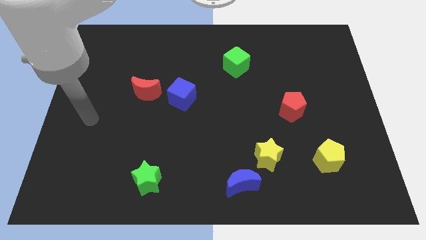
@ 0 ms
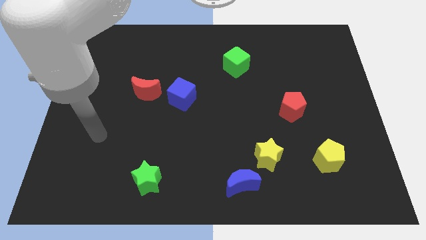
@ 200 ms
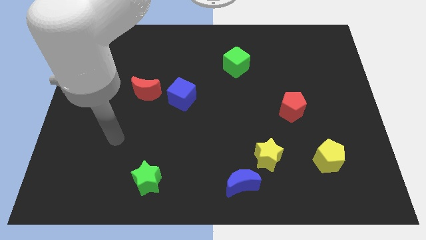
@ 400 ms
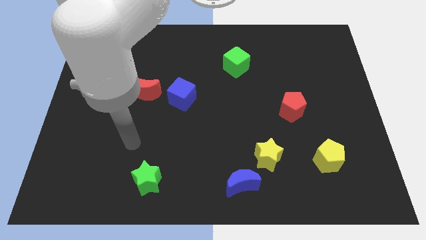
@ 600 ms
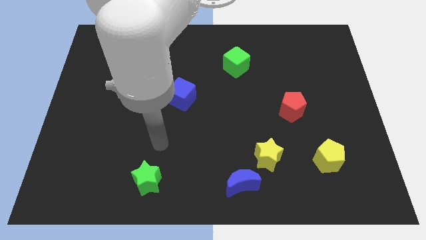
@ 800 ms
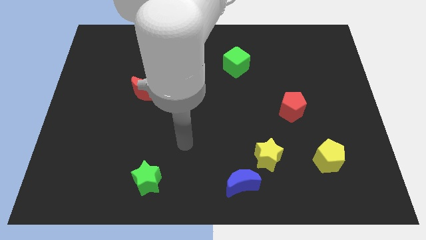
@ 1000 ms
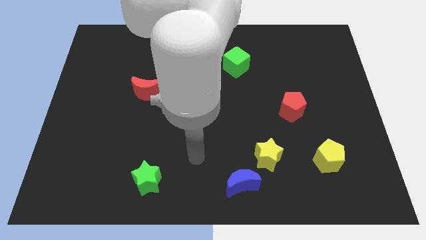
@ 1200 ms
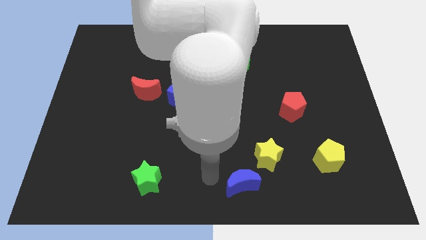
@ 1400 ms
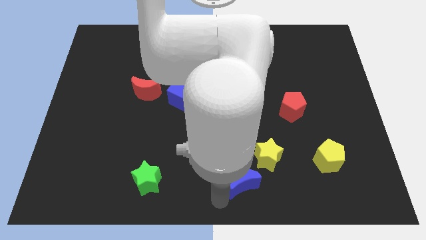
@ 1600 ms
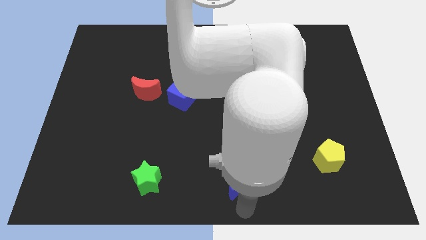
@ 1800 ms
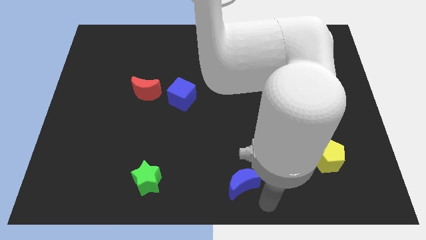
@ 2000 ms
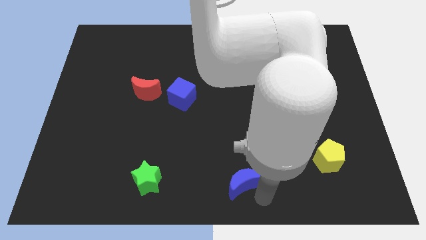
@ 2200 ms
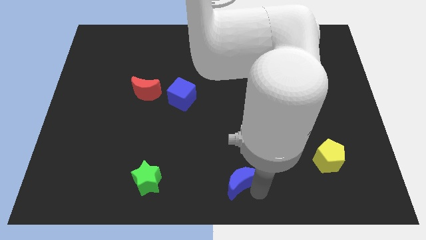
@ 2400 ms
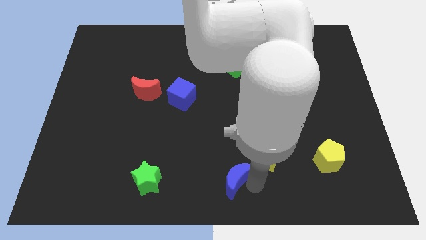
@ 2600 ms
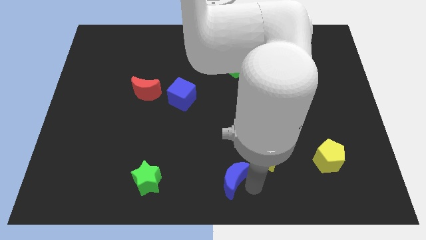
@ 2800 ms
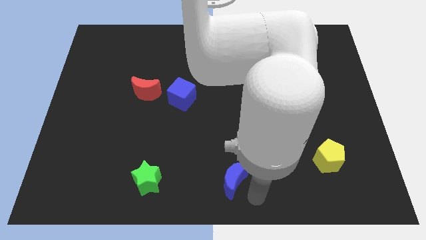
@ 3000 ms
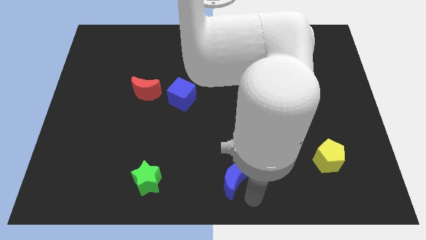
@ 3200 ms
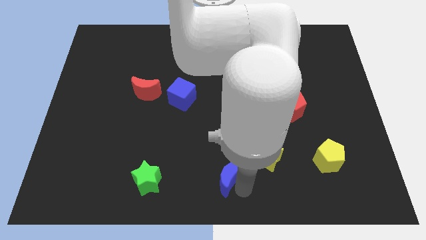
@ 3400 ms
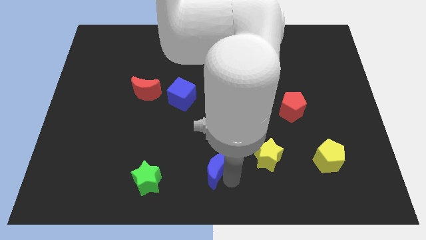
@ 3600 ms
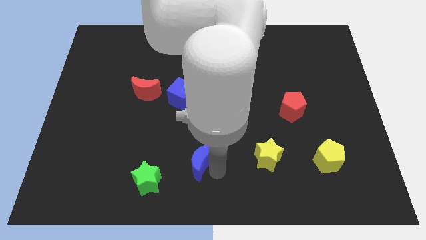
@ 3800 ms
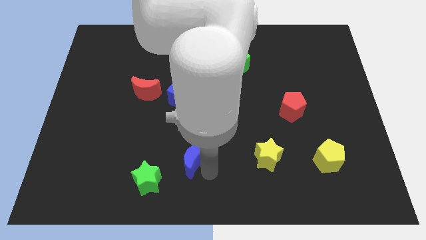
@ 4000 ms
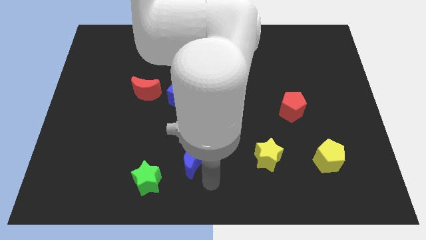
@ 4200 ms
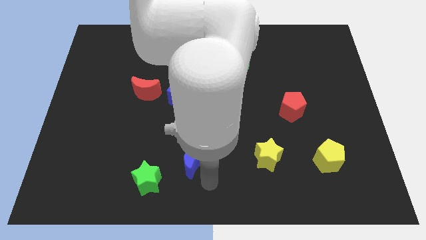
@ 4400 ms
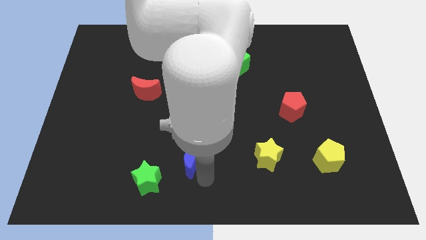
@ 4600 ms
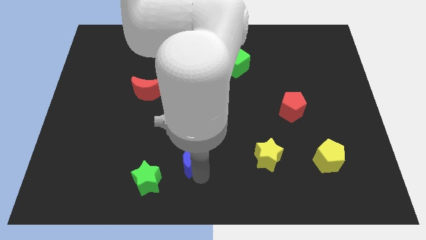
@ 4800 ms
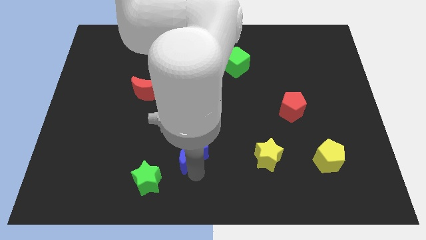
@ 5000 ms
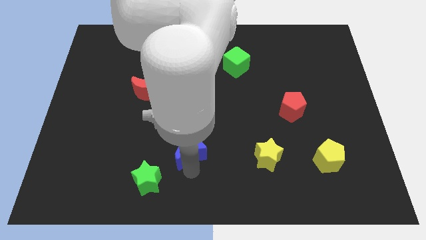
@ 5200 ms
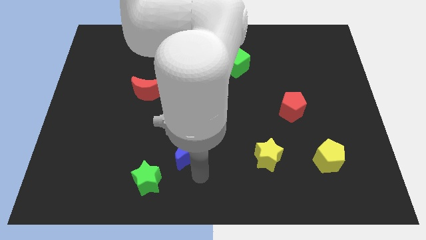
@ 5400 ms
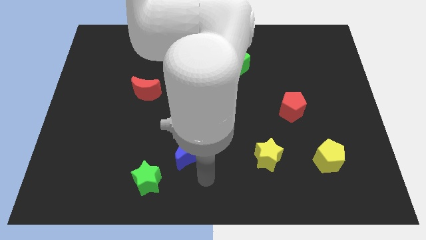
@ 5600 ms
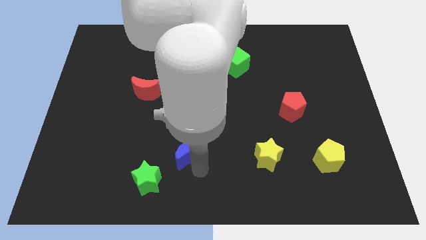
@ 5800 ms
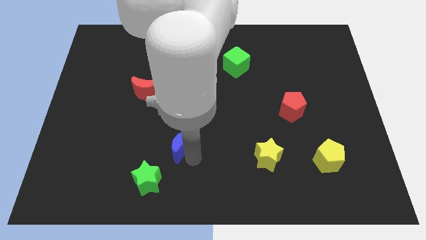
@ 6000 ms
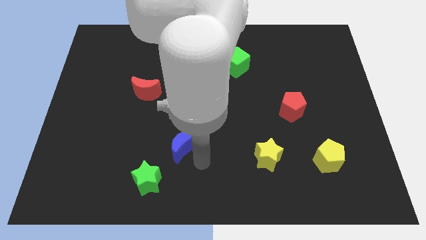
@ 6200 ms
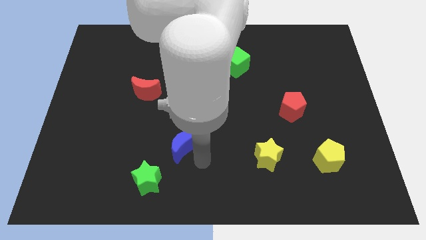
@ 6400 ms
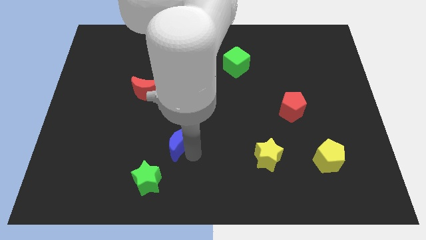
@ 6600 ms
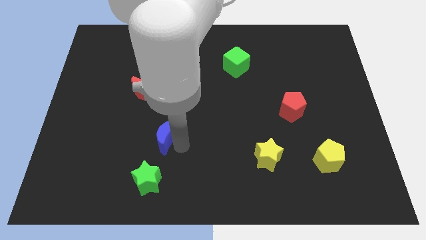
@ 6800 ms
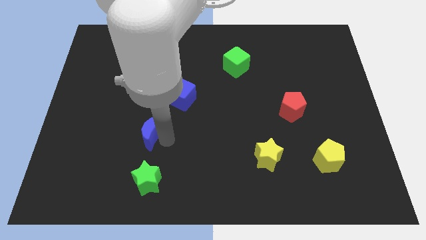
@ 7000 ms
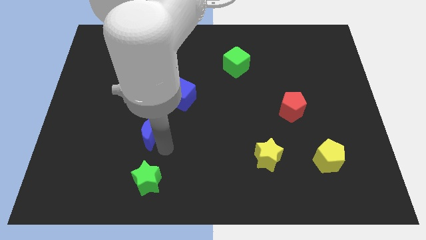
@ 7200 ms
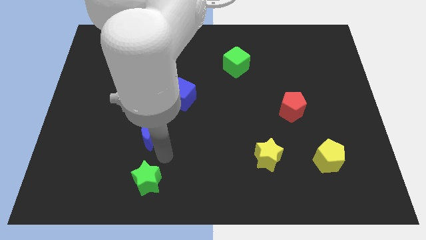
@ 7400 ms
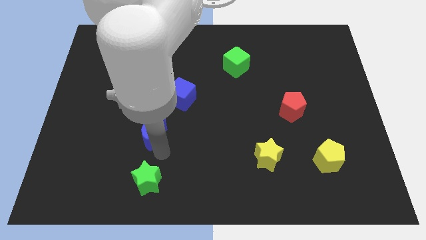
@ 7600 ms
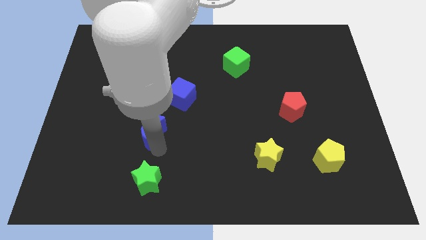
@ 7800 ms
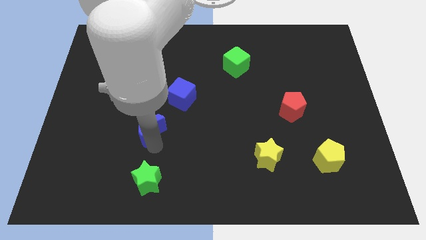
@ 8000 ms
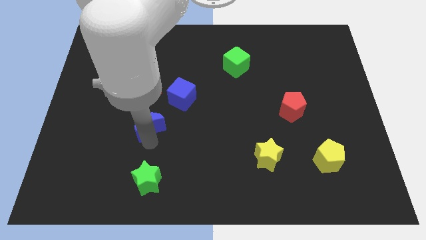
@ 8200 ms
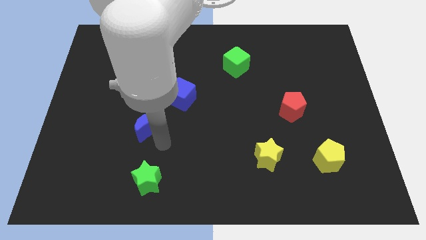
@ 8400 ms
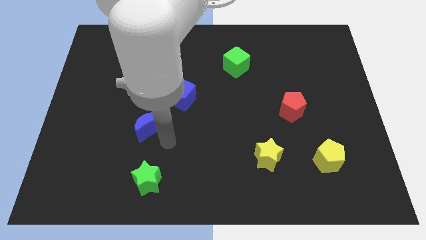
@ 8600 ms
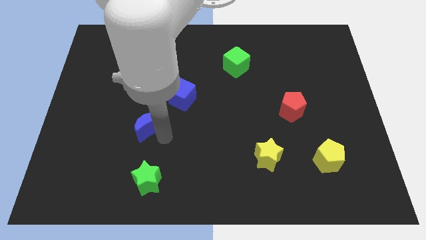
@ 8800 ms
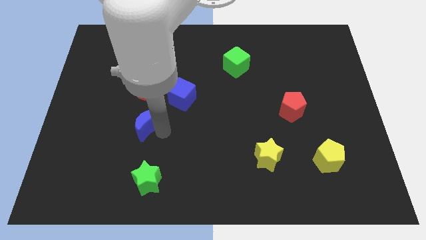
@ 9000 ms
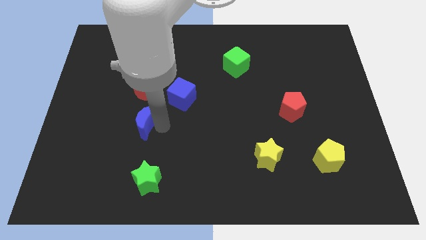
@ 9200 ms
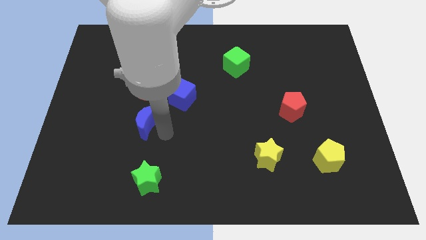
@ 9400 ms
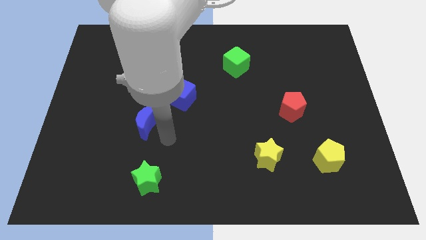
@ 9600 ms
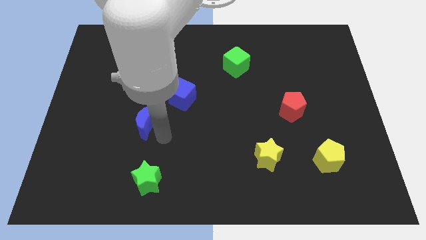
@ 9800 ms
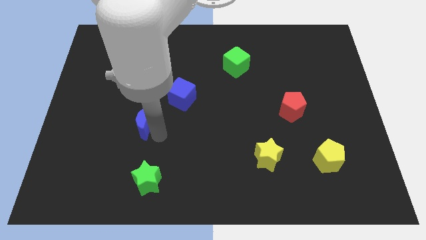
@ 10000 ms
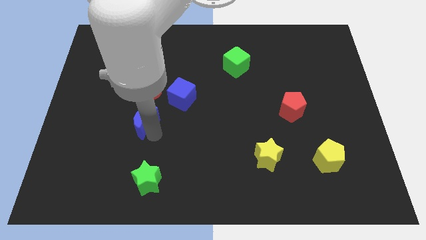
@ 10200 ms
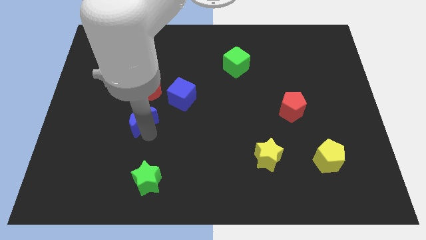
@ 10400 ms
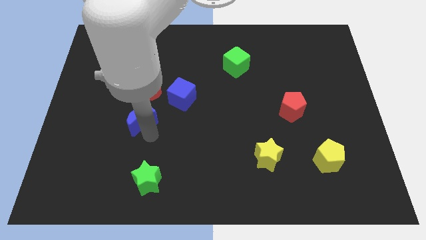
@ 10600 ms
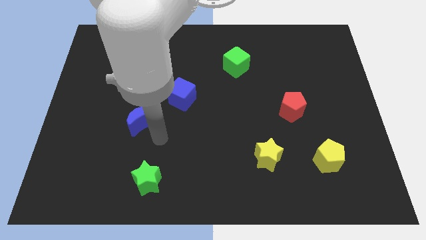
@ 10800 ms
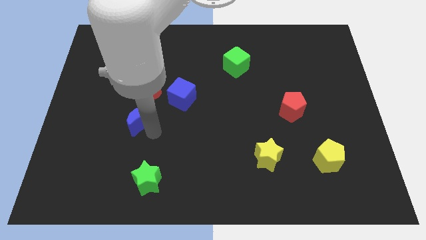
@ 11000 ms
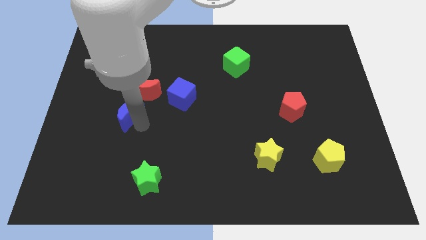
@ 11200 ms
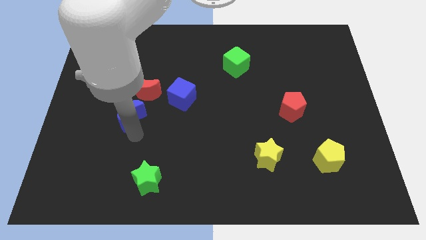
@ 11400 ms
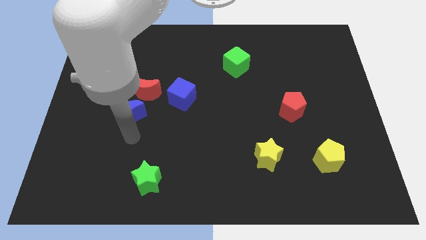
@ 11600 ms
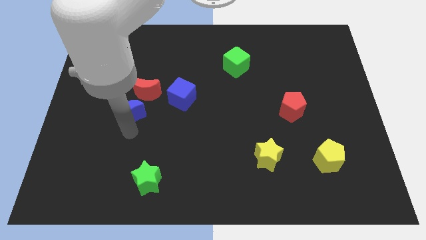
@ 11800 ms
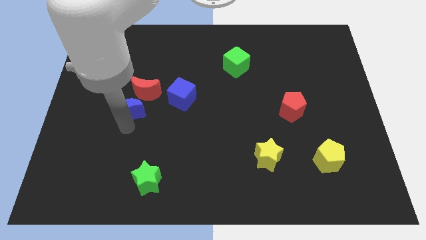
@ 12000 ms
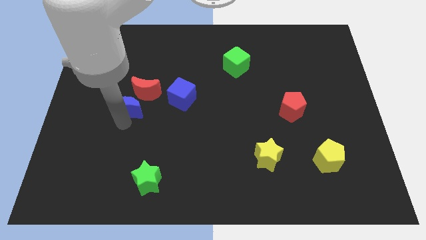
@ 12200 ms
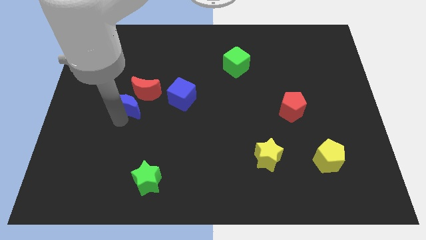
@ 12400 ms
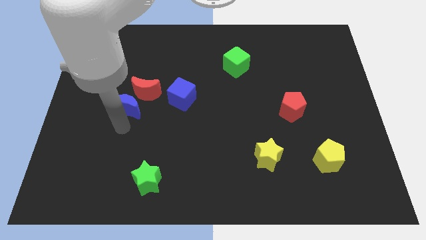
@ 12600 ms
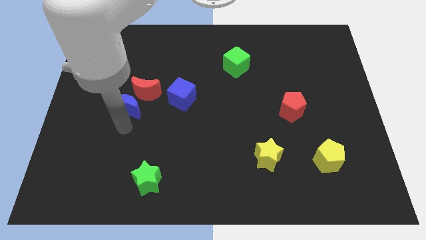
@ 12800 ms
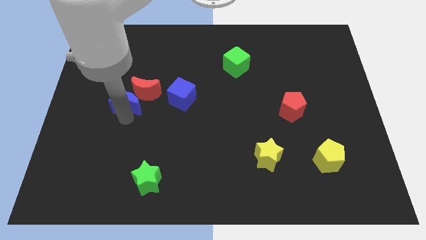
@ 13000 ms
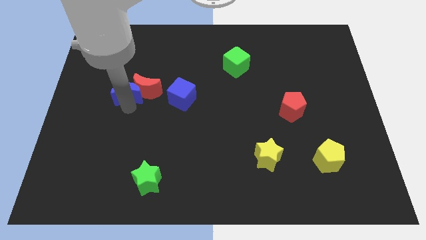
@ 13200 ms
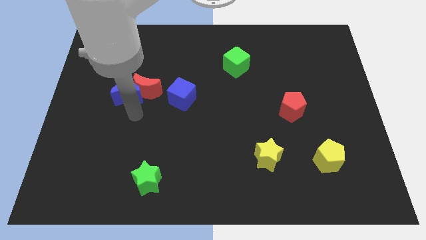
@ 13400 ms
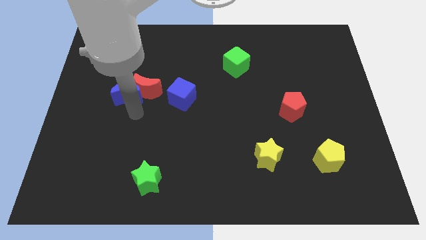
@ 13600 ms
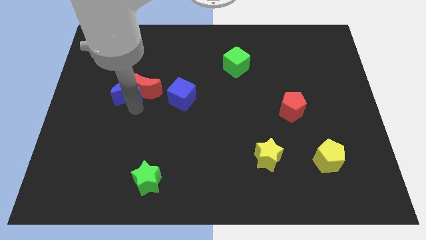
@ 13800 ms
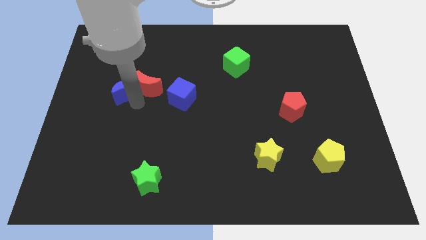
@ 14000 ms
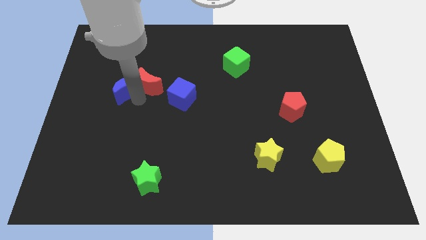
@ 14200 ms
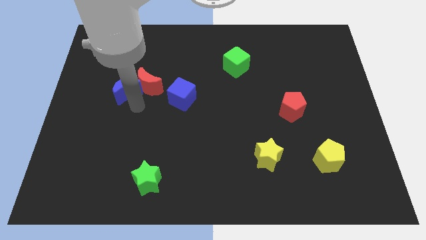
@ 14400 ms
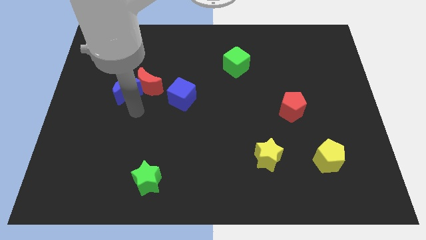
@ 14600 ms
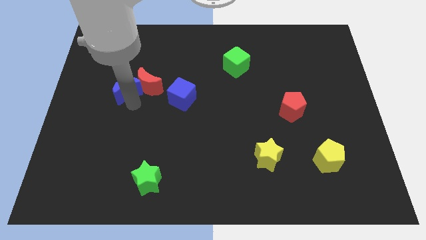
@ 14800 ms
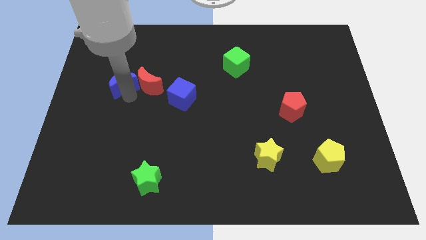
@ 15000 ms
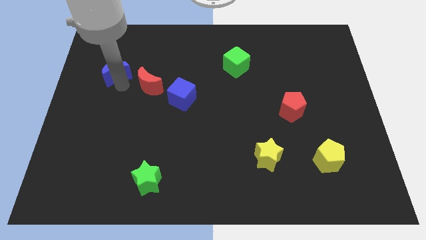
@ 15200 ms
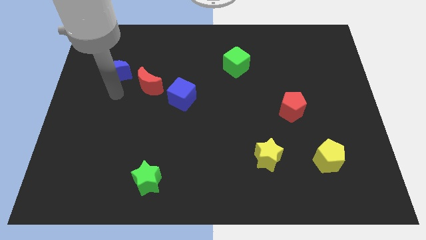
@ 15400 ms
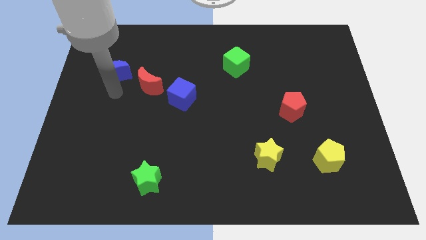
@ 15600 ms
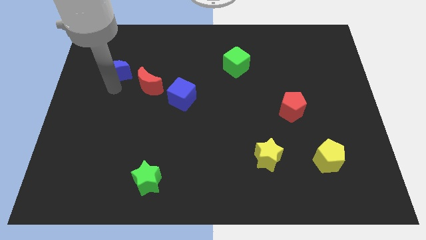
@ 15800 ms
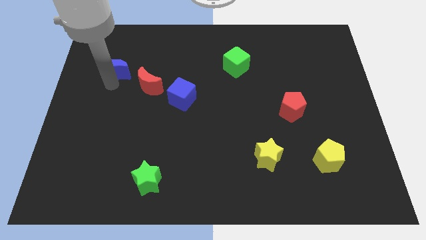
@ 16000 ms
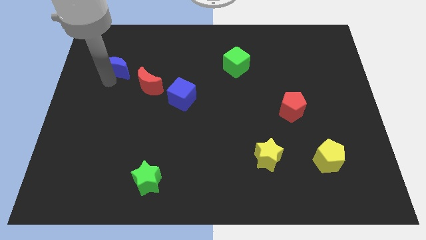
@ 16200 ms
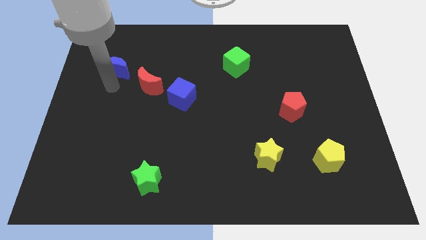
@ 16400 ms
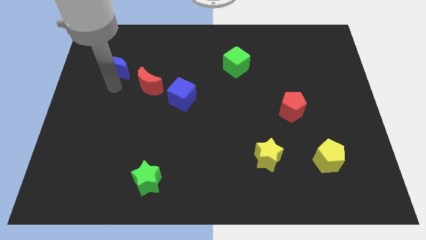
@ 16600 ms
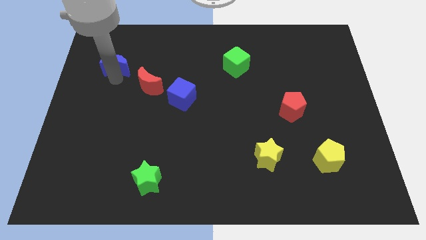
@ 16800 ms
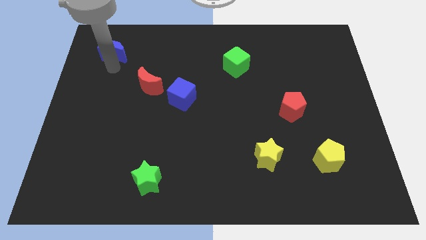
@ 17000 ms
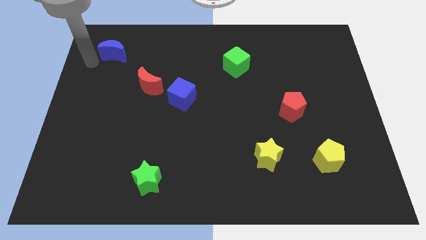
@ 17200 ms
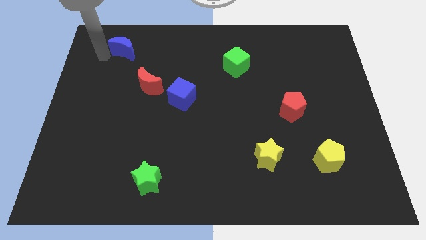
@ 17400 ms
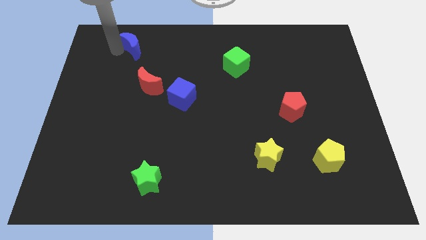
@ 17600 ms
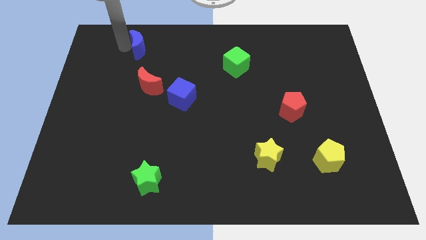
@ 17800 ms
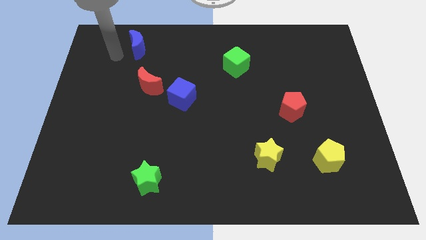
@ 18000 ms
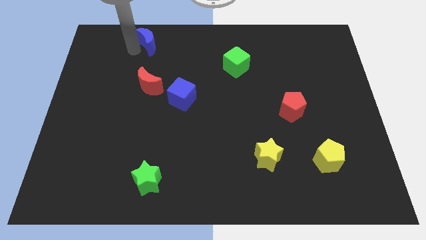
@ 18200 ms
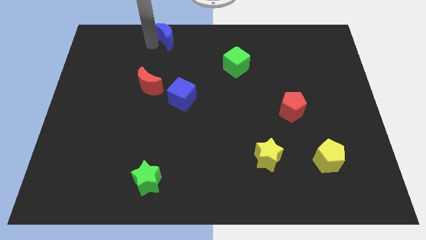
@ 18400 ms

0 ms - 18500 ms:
put the blue moon to the top side
